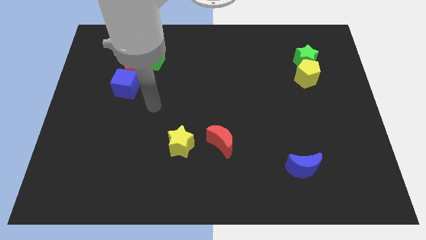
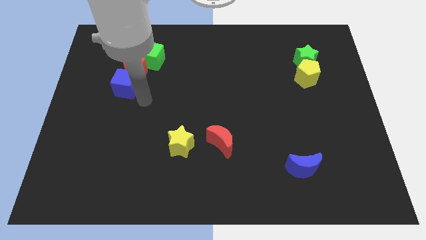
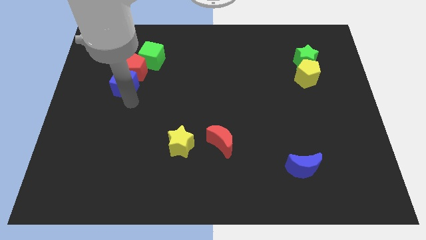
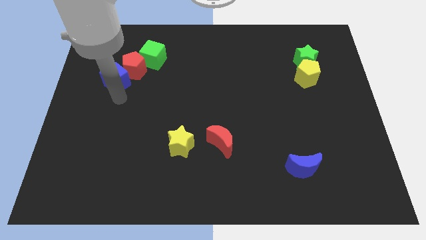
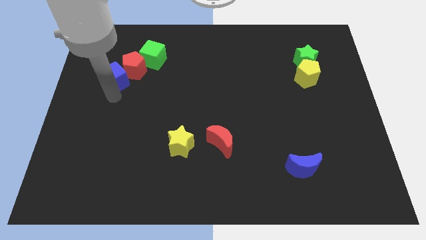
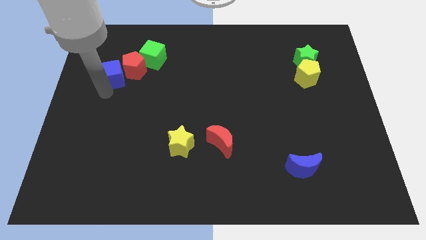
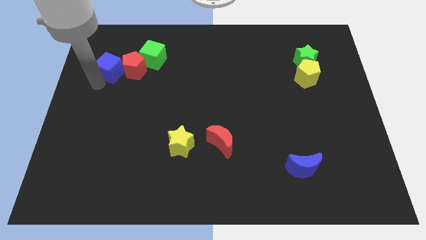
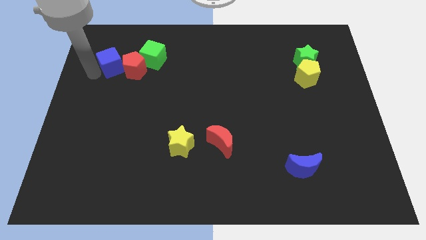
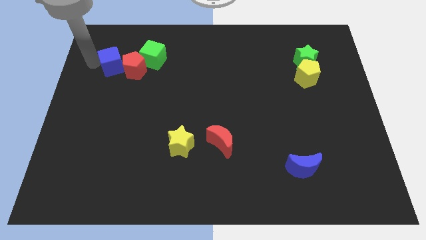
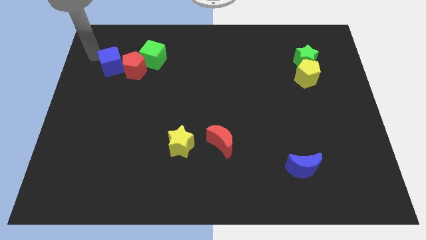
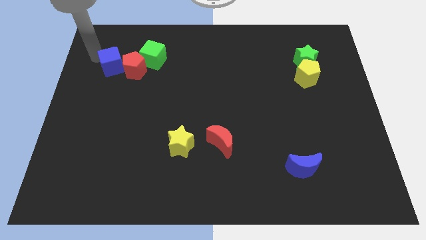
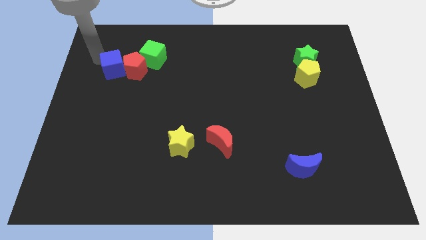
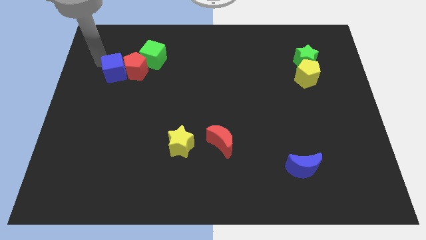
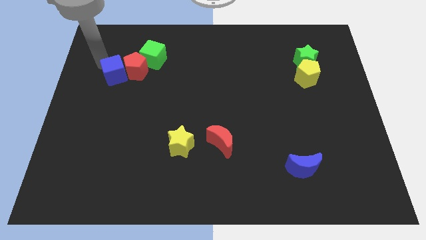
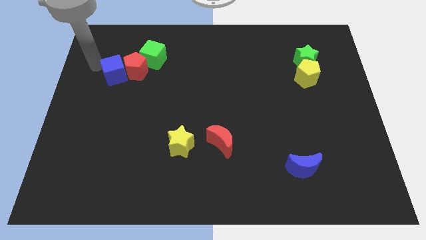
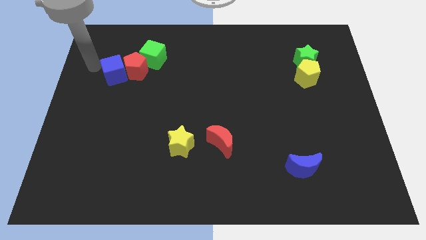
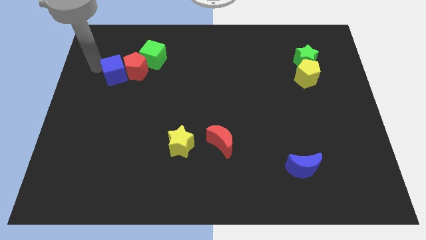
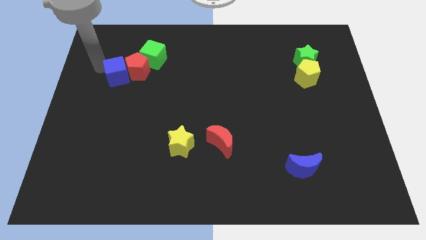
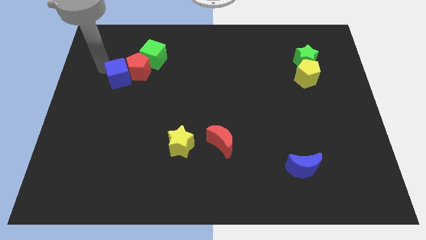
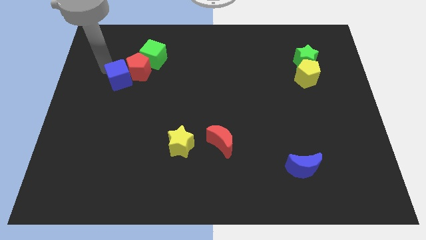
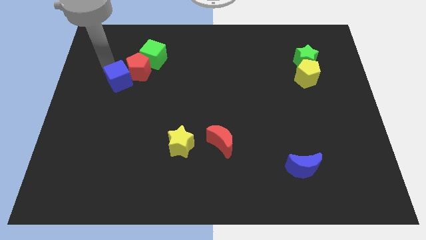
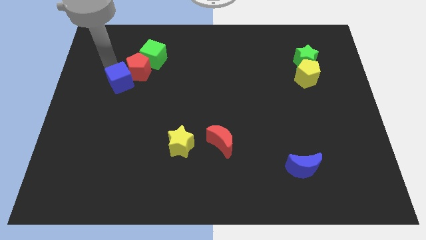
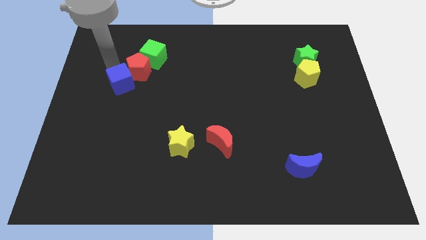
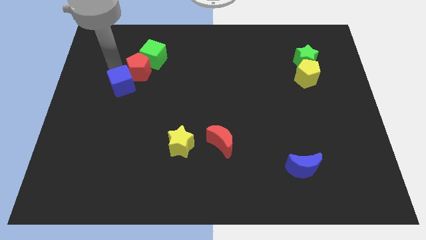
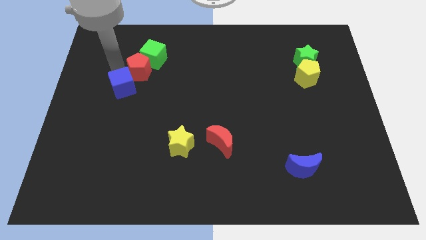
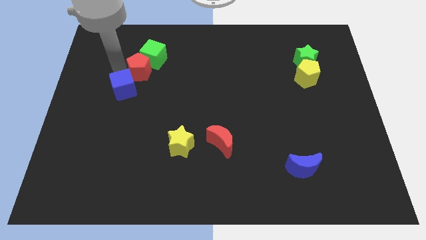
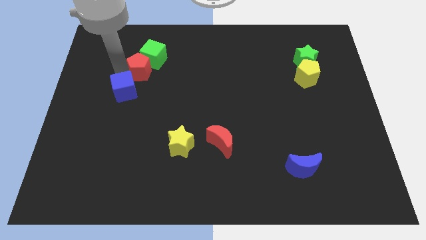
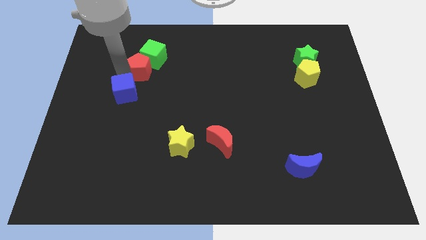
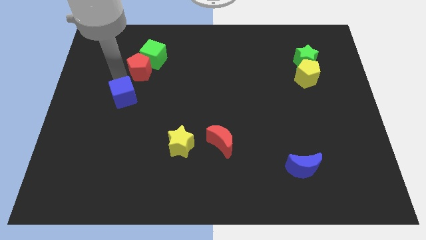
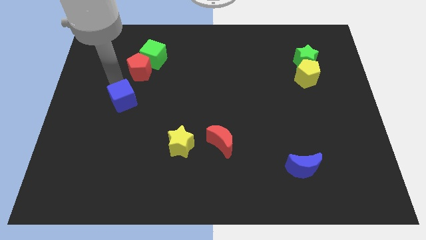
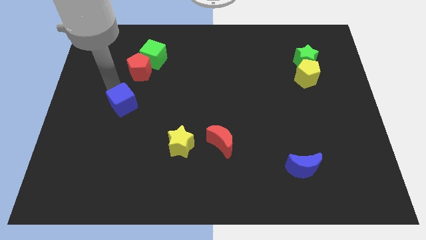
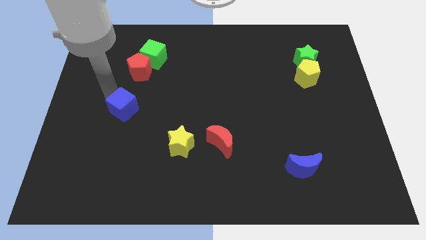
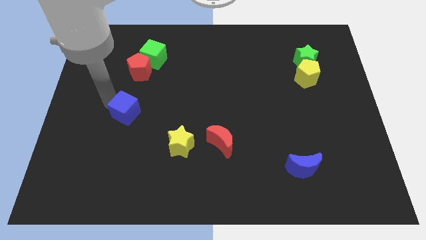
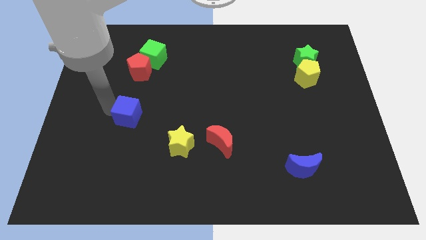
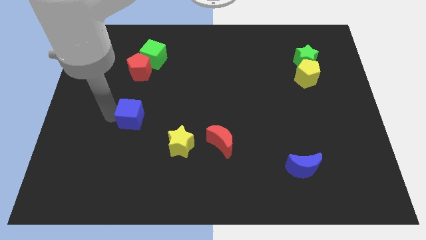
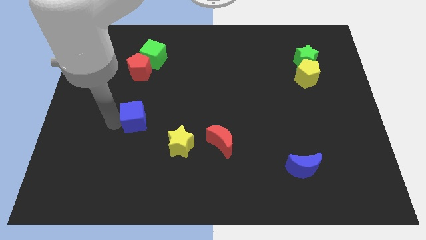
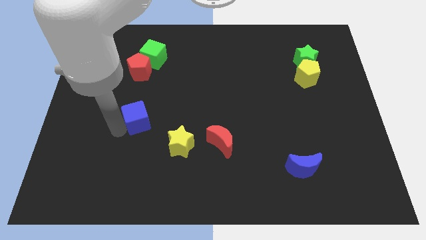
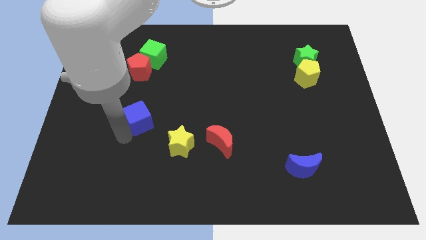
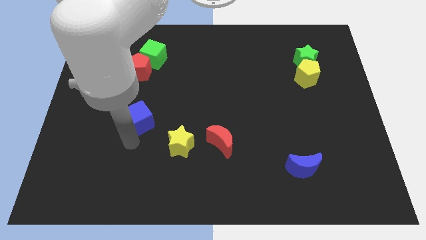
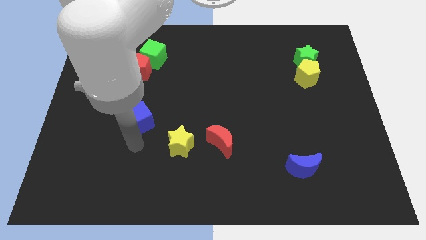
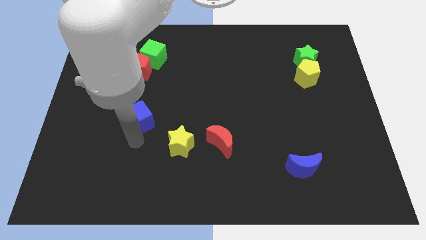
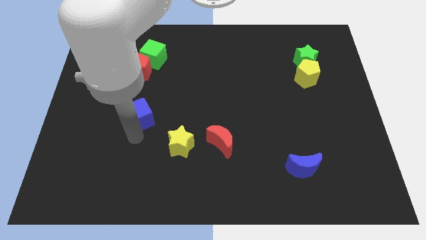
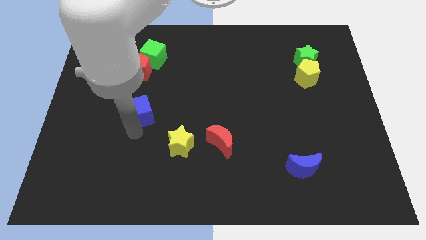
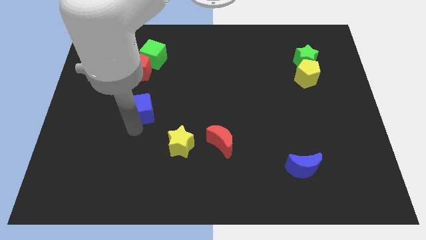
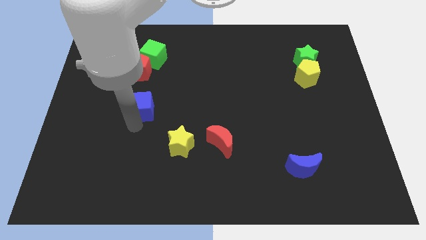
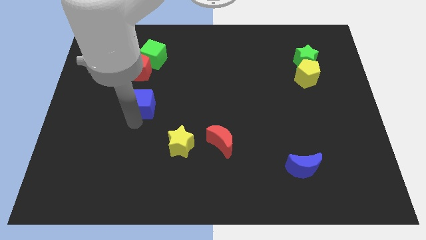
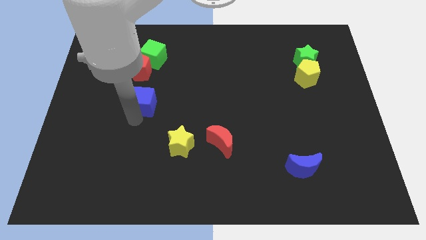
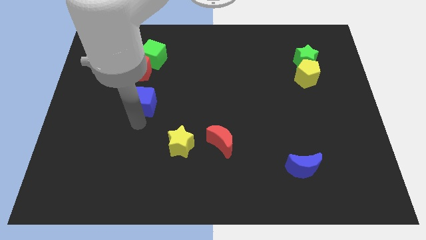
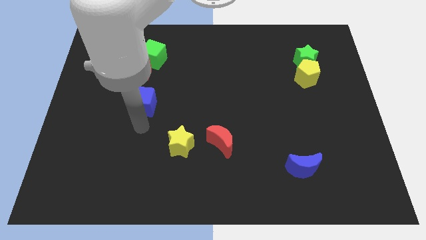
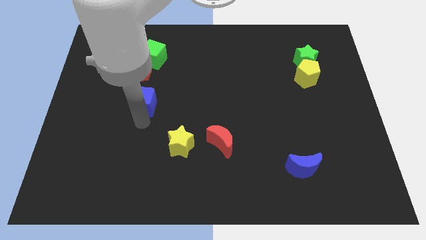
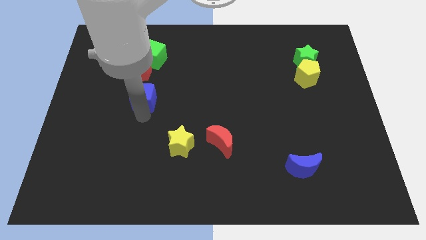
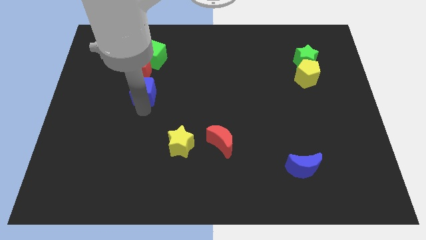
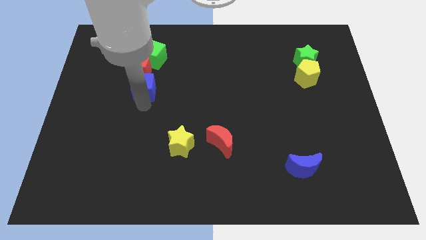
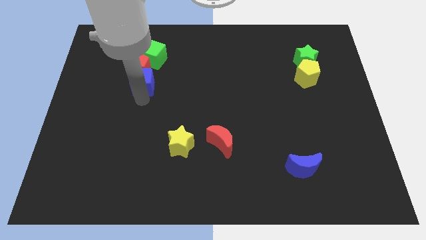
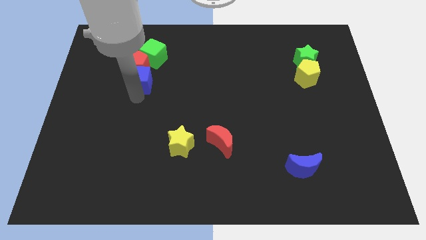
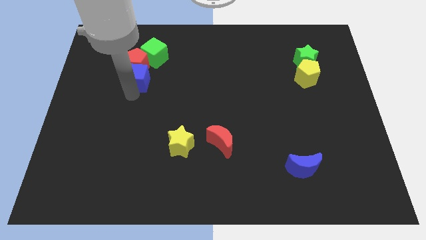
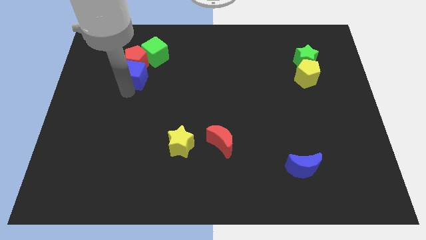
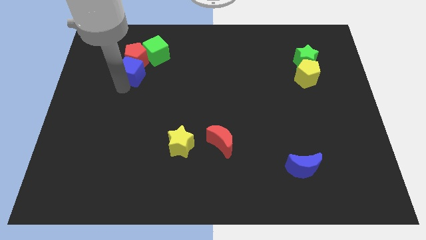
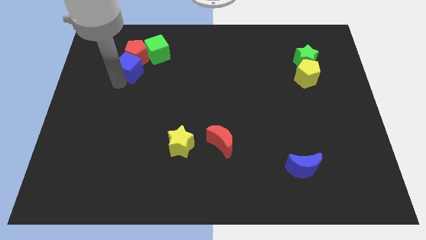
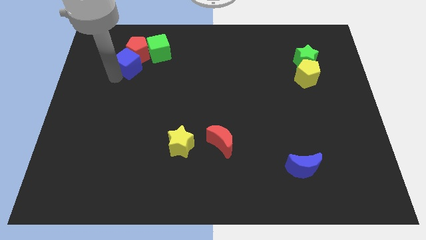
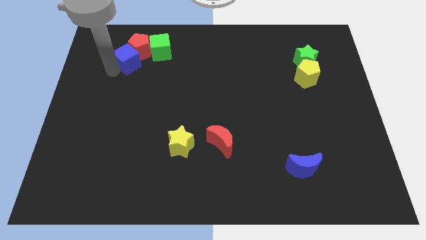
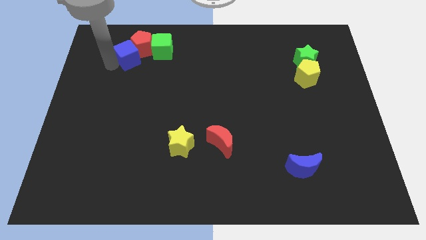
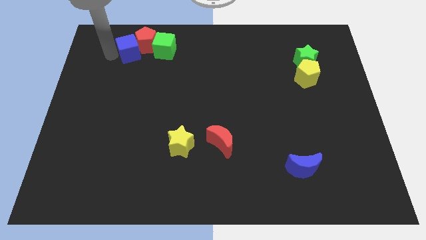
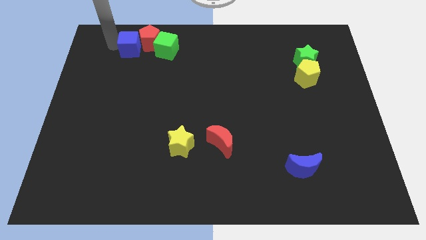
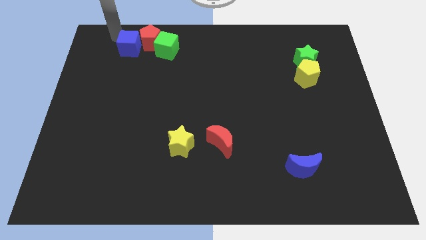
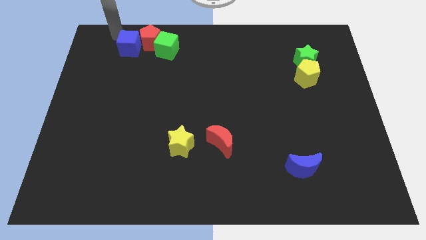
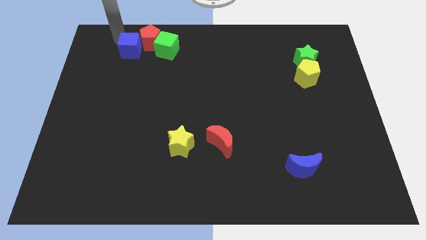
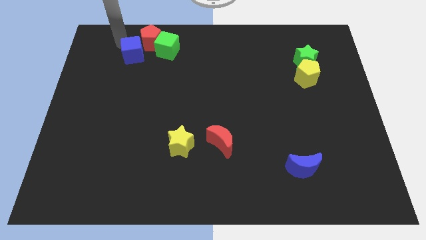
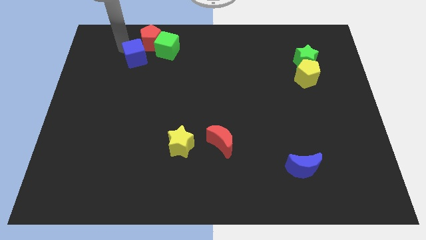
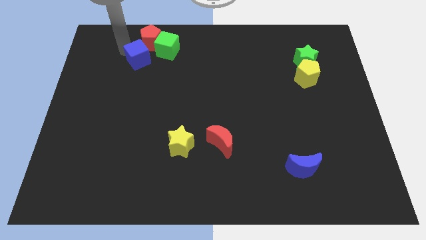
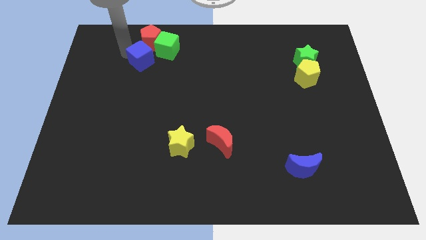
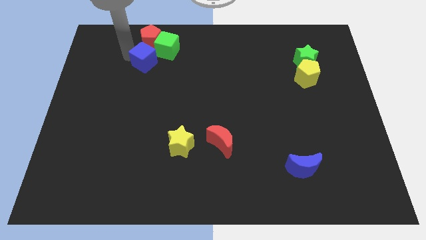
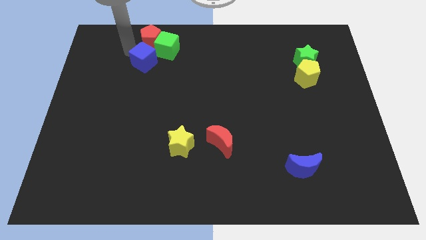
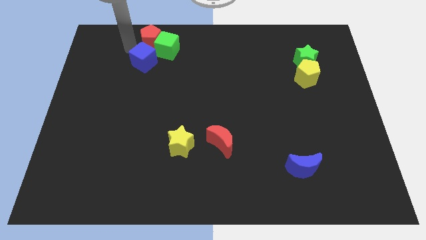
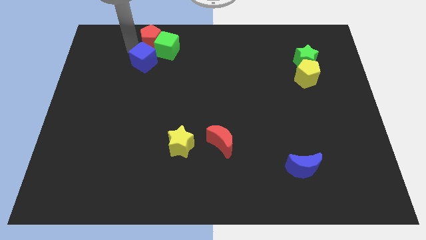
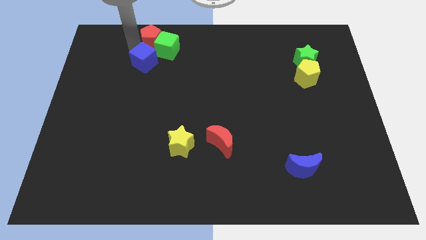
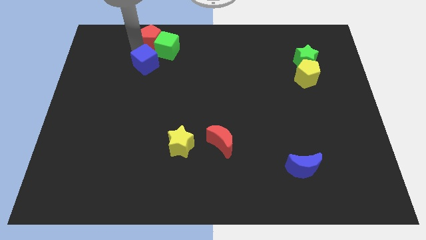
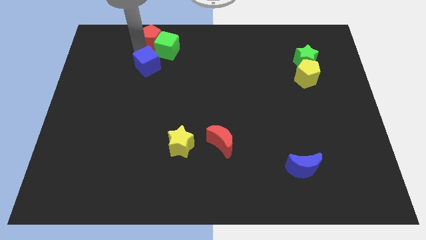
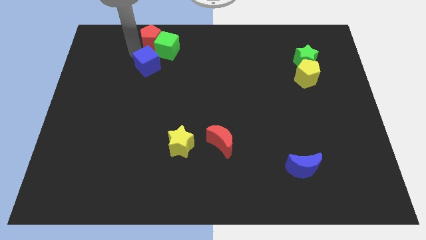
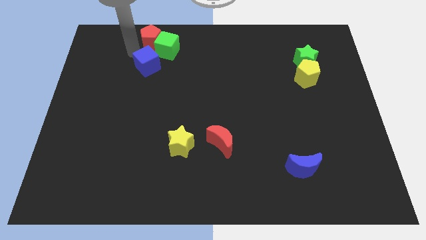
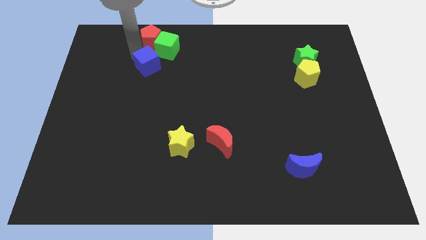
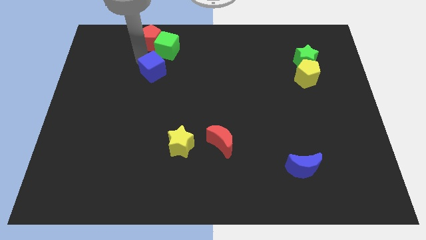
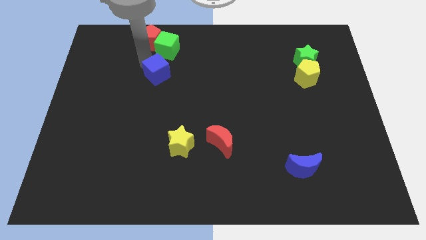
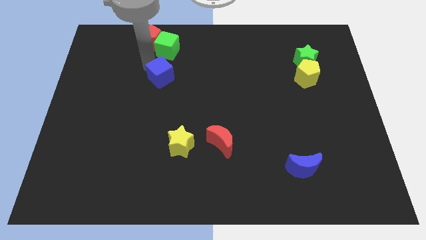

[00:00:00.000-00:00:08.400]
slightly move the blue cube to the right

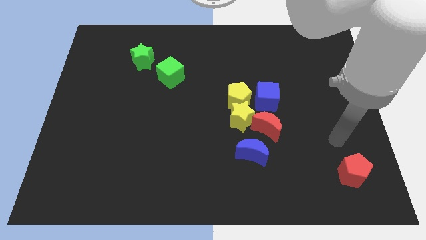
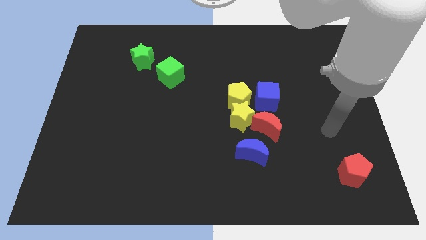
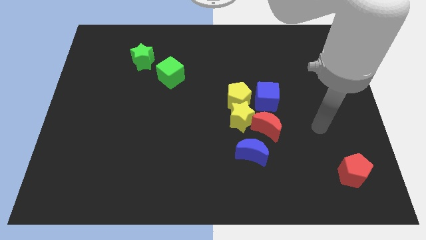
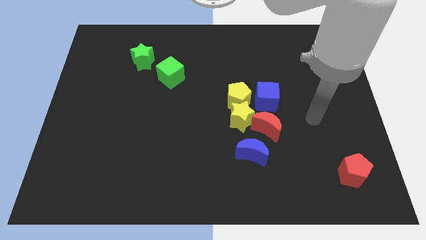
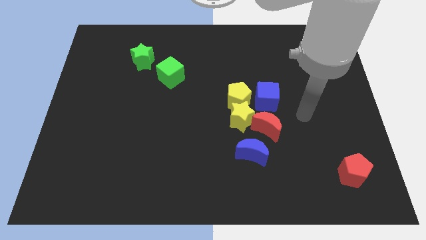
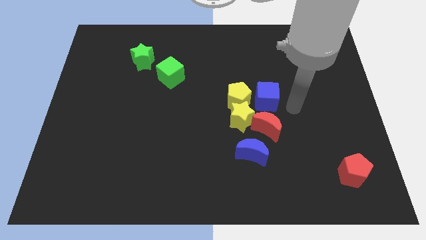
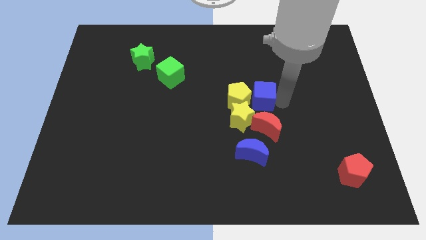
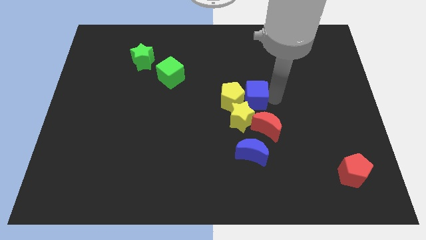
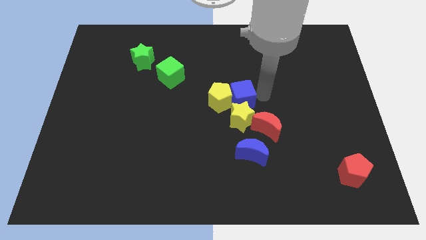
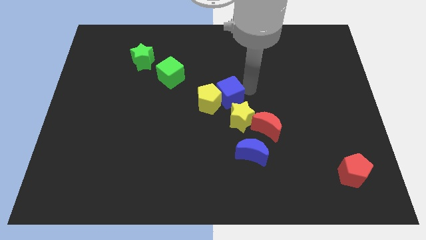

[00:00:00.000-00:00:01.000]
move the yellow pentagon somewhat left
